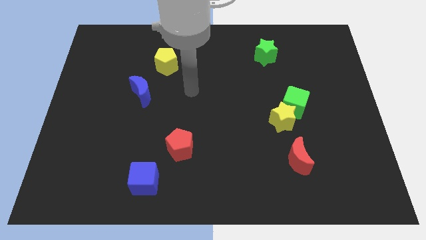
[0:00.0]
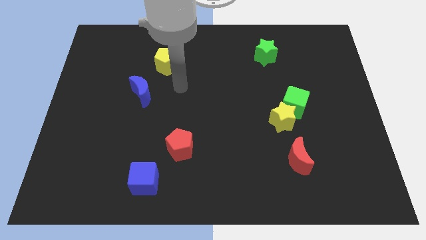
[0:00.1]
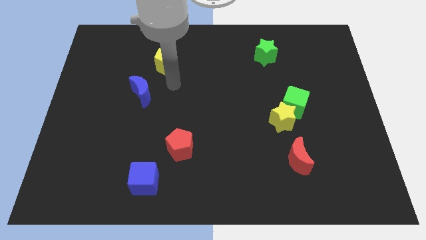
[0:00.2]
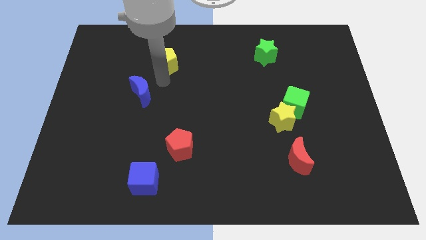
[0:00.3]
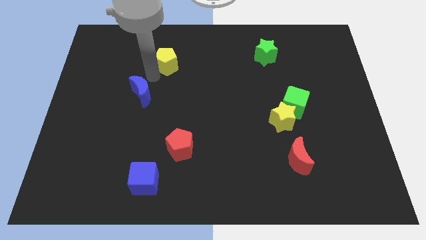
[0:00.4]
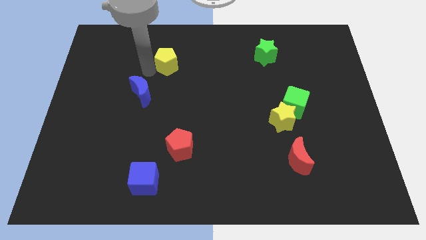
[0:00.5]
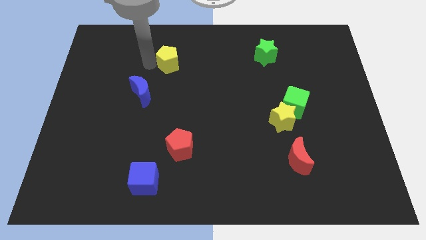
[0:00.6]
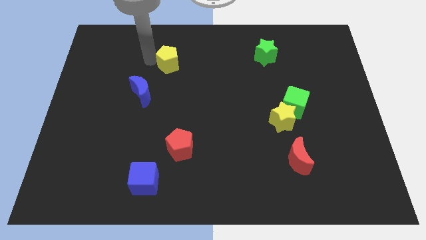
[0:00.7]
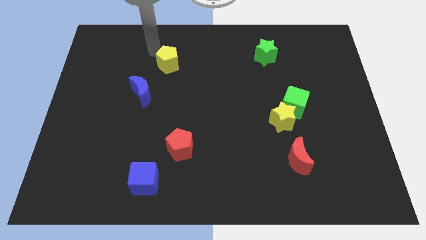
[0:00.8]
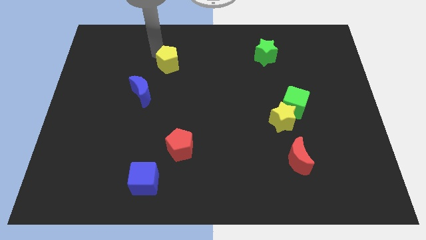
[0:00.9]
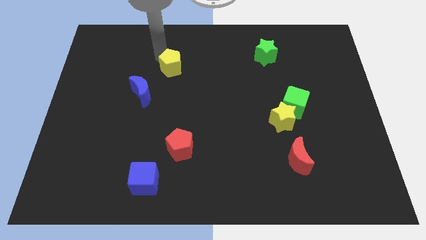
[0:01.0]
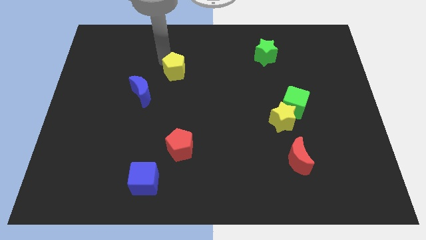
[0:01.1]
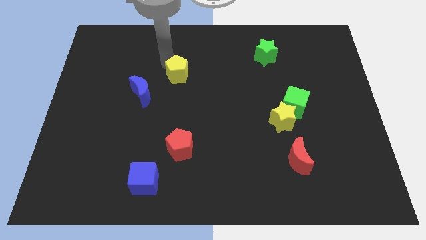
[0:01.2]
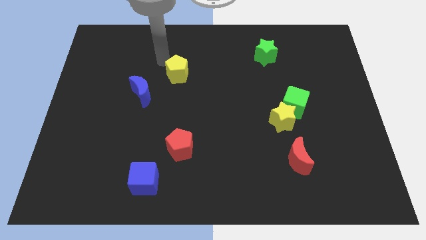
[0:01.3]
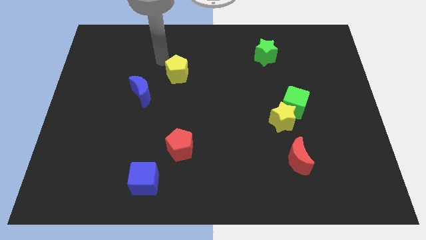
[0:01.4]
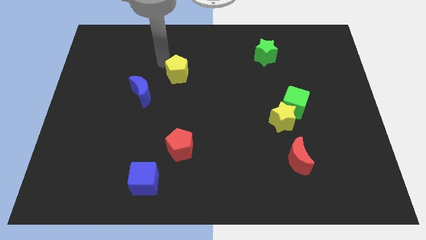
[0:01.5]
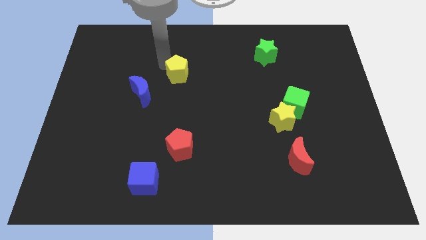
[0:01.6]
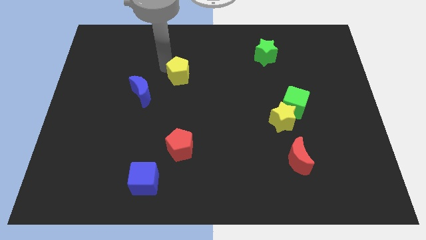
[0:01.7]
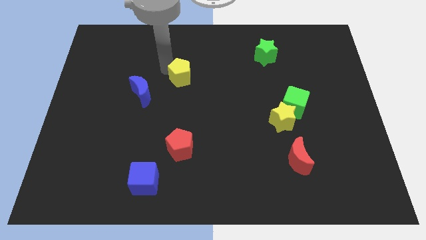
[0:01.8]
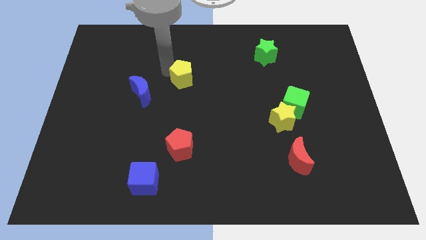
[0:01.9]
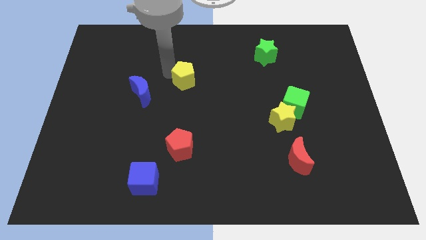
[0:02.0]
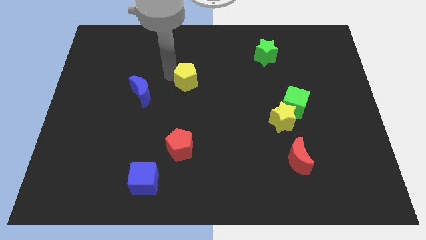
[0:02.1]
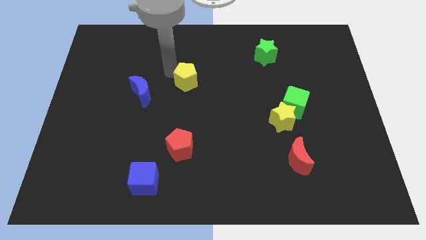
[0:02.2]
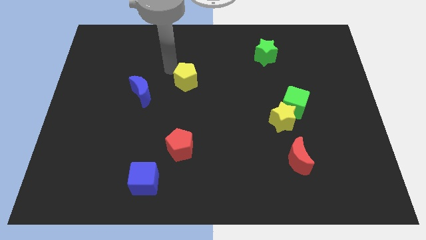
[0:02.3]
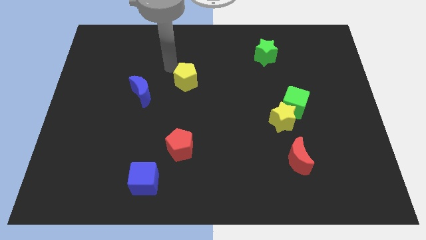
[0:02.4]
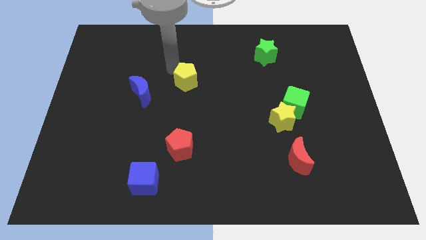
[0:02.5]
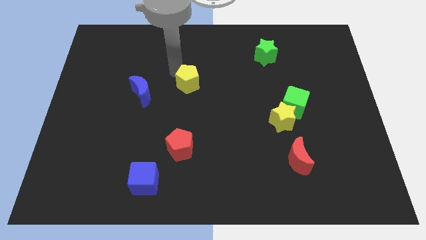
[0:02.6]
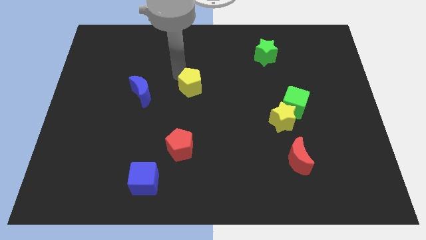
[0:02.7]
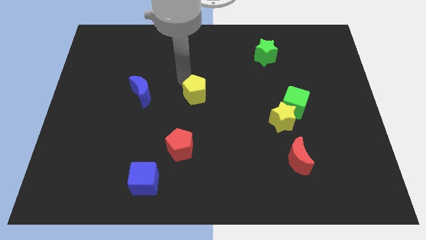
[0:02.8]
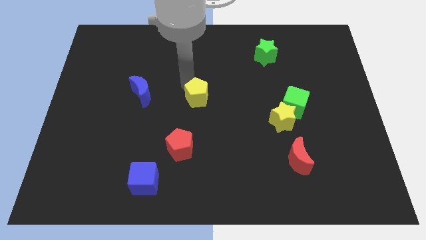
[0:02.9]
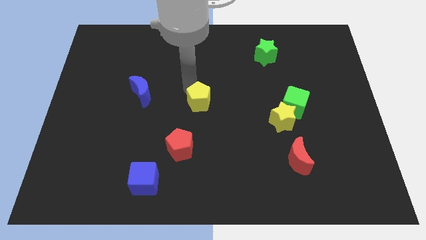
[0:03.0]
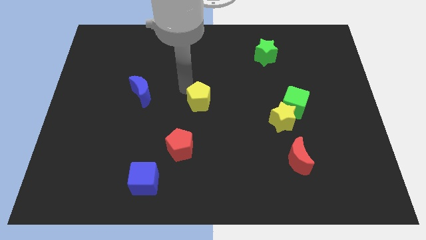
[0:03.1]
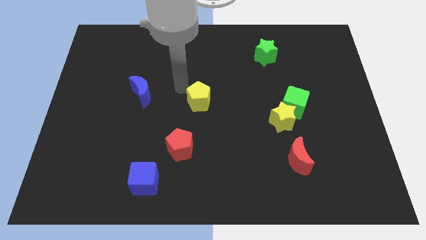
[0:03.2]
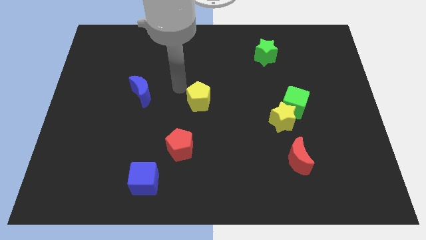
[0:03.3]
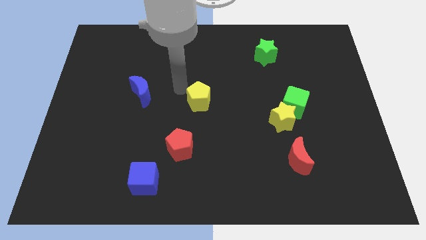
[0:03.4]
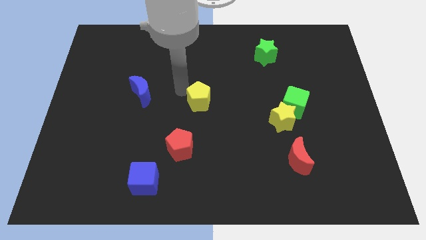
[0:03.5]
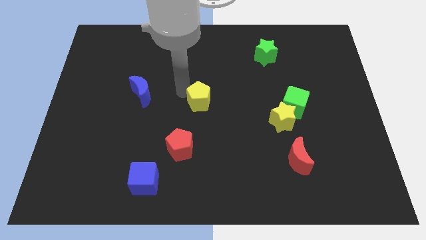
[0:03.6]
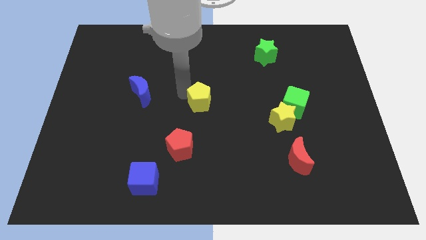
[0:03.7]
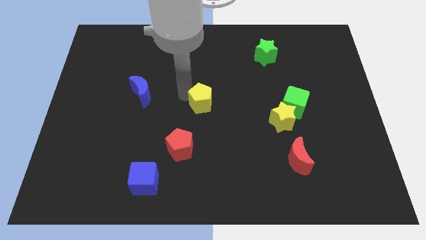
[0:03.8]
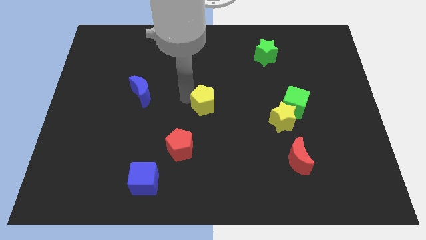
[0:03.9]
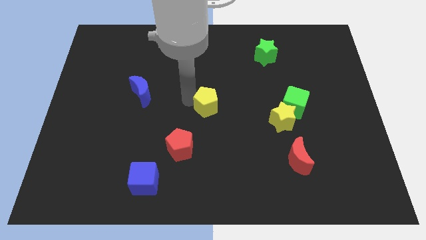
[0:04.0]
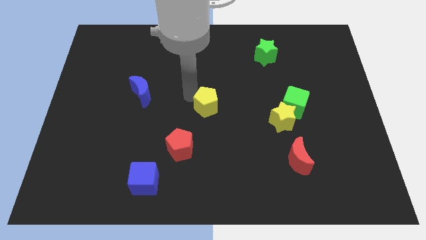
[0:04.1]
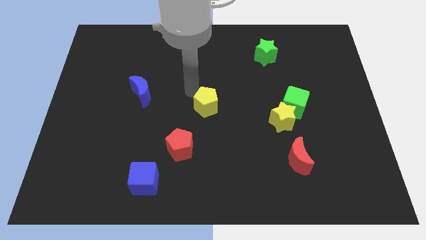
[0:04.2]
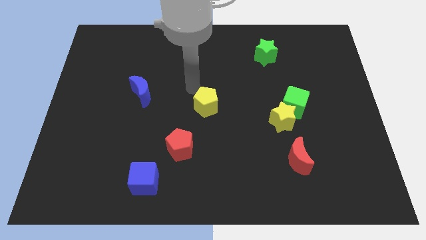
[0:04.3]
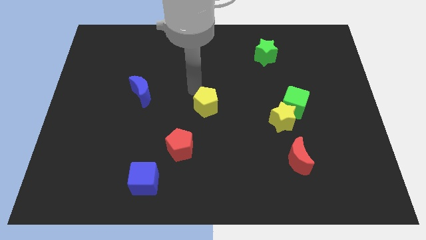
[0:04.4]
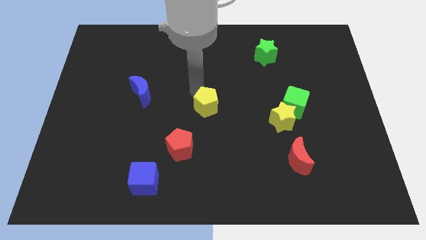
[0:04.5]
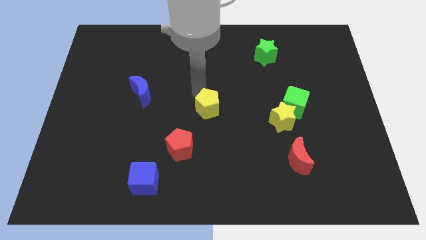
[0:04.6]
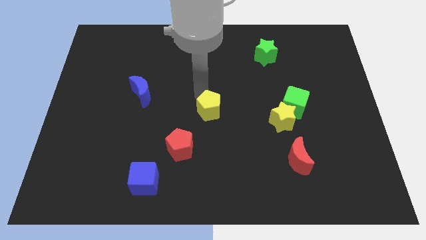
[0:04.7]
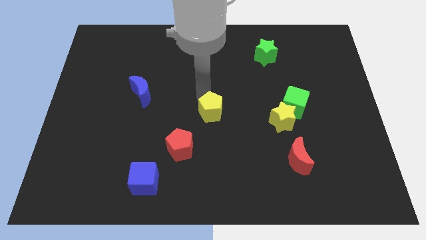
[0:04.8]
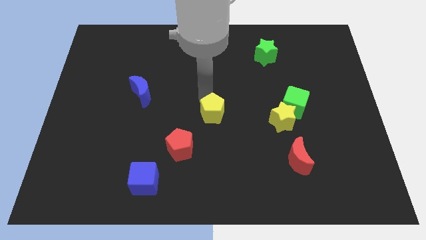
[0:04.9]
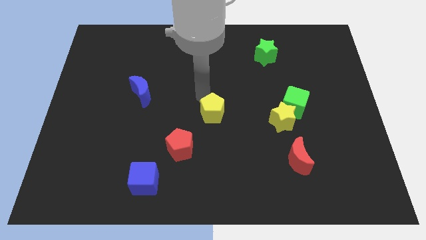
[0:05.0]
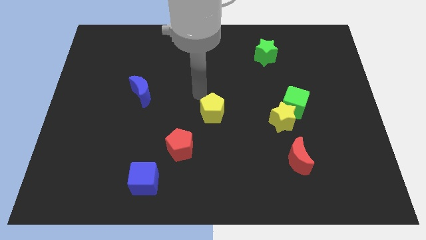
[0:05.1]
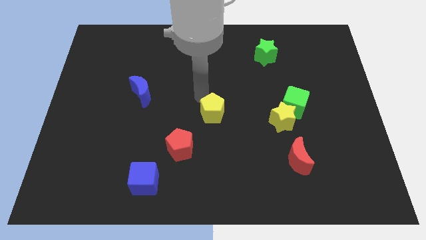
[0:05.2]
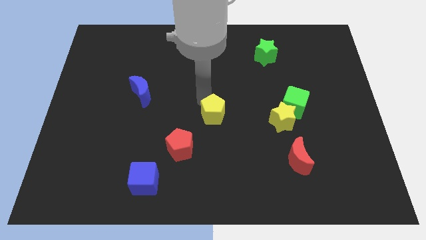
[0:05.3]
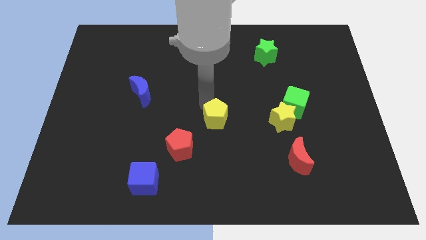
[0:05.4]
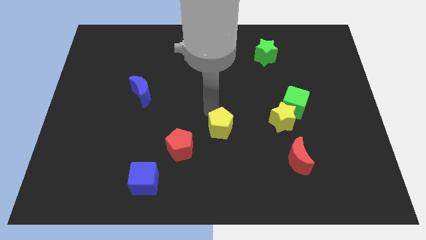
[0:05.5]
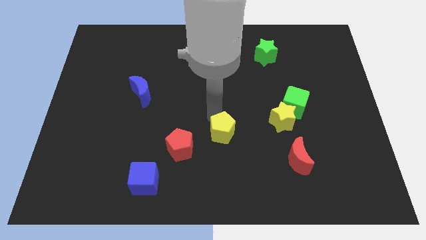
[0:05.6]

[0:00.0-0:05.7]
slide the yellow pentagon just right of the red pentagon

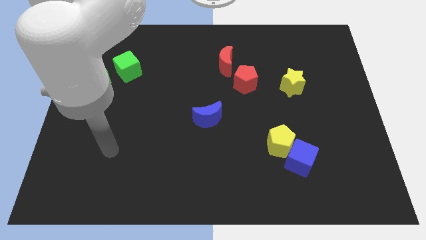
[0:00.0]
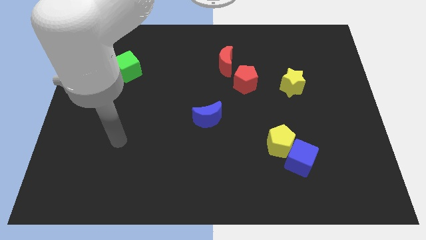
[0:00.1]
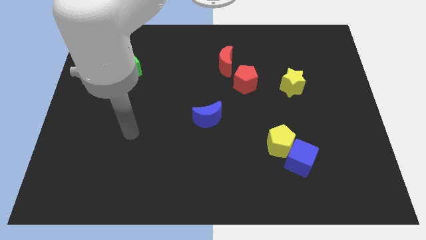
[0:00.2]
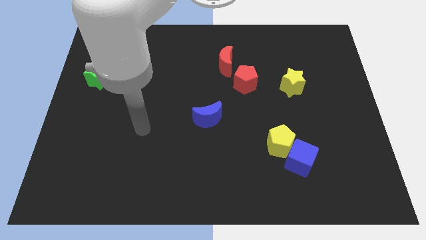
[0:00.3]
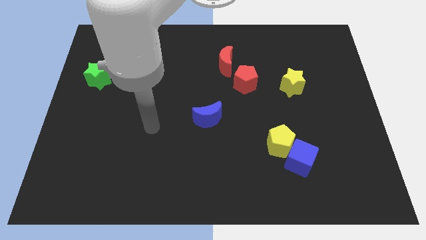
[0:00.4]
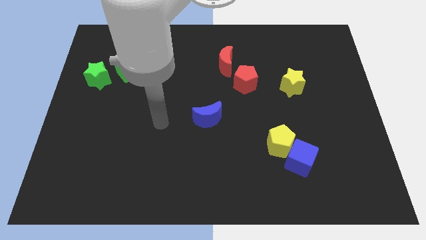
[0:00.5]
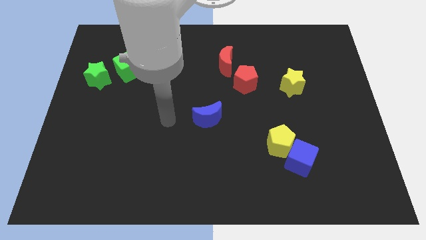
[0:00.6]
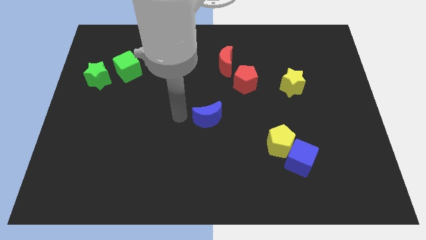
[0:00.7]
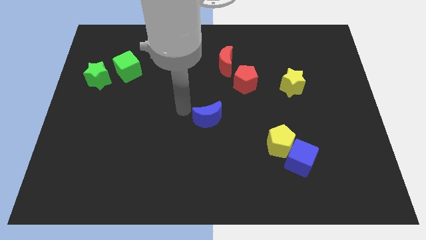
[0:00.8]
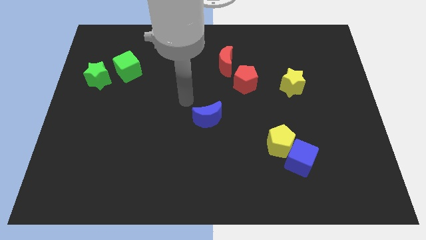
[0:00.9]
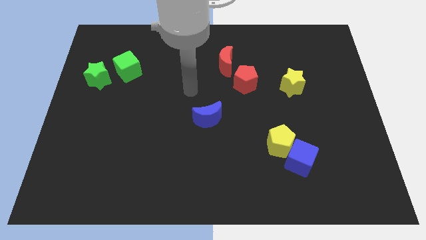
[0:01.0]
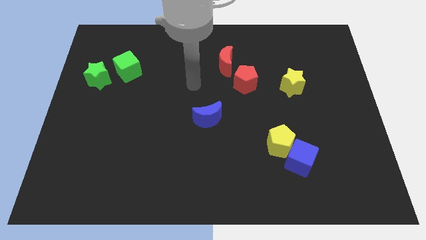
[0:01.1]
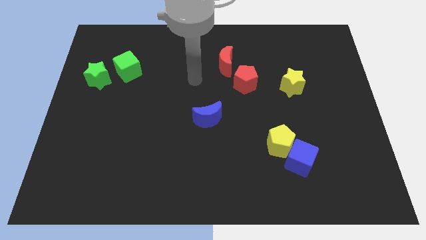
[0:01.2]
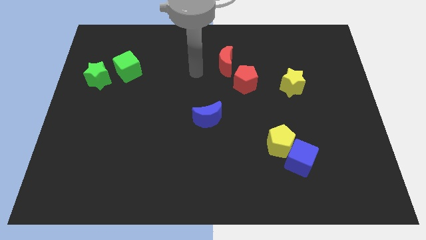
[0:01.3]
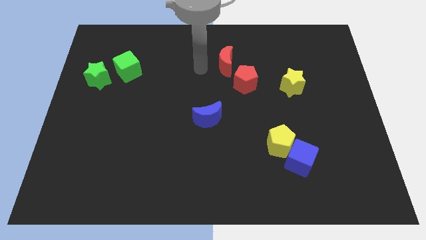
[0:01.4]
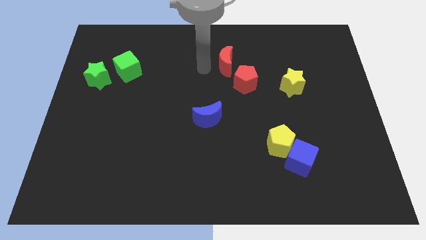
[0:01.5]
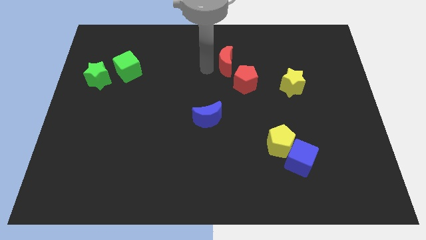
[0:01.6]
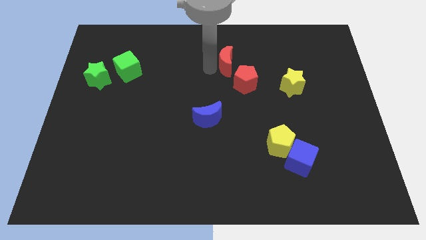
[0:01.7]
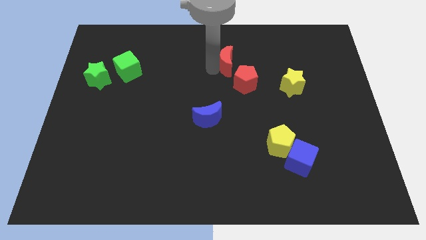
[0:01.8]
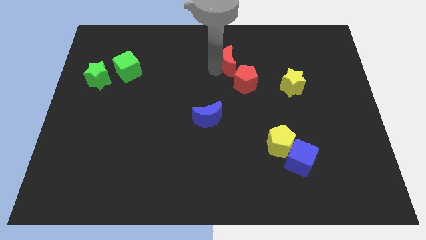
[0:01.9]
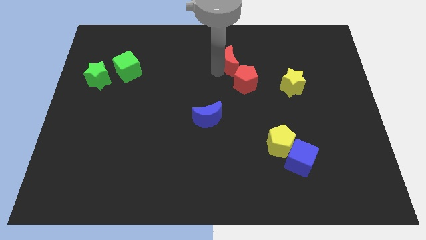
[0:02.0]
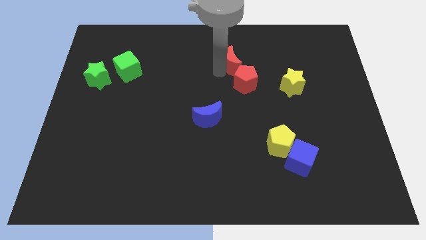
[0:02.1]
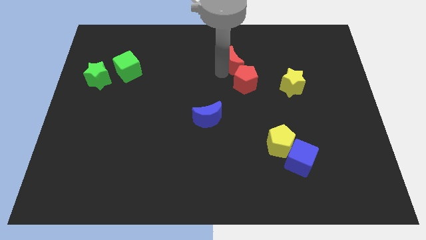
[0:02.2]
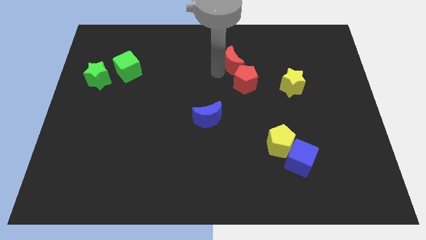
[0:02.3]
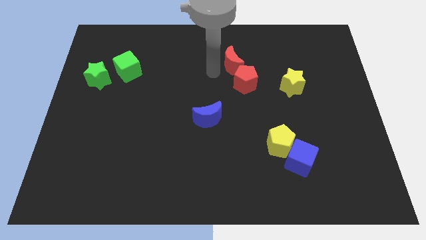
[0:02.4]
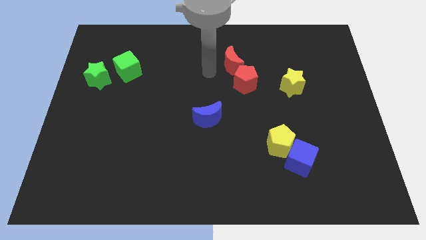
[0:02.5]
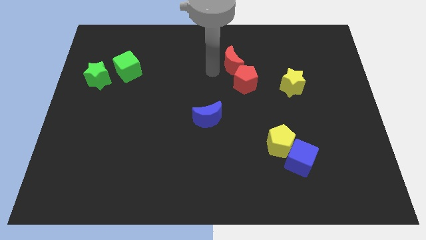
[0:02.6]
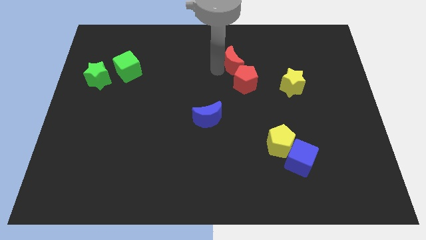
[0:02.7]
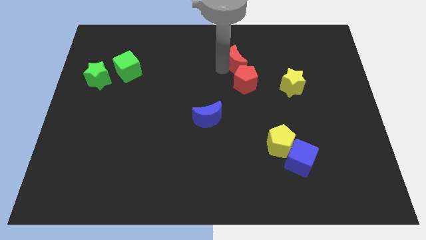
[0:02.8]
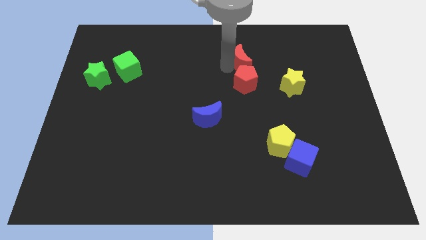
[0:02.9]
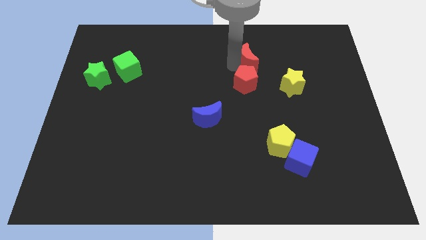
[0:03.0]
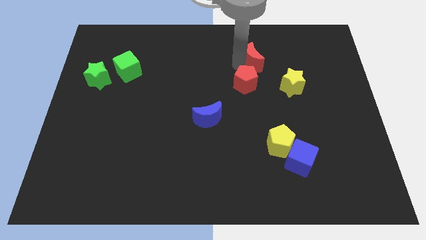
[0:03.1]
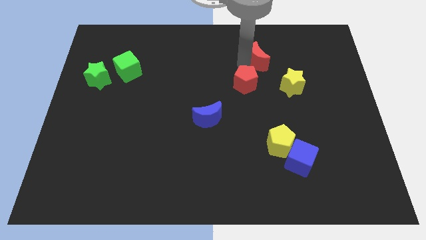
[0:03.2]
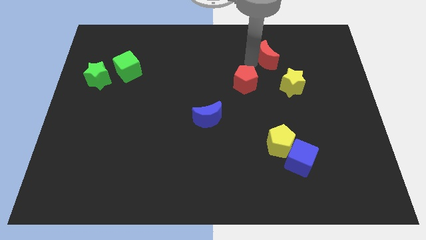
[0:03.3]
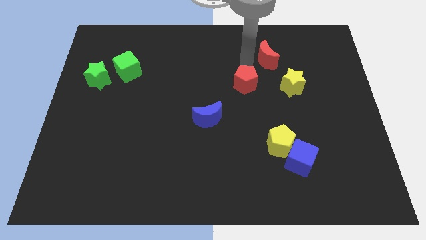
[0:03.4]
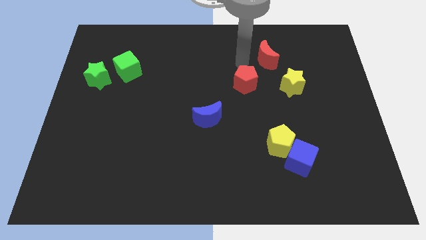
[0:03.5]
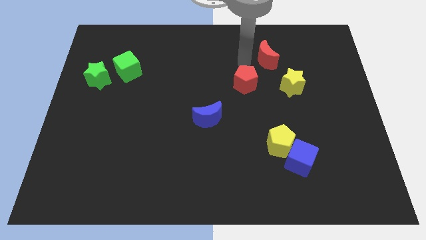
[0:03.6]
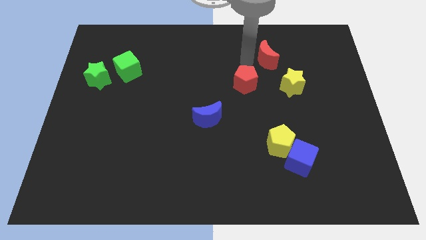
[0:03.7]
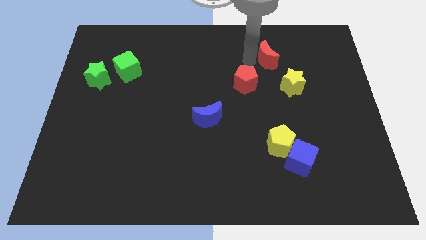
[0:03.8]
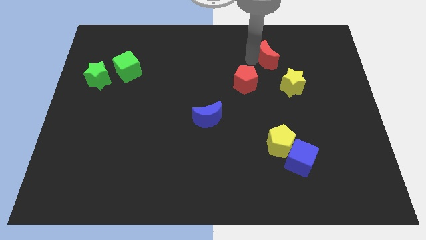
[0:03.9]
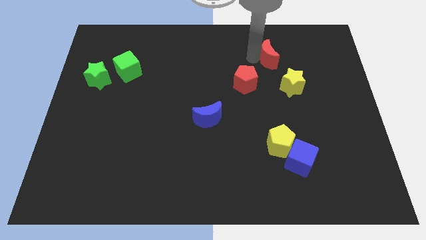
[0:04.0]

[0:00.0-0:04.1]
slide the red moon above the yellow star
